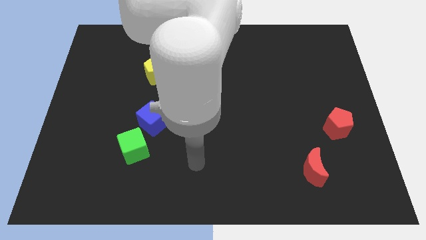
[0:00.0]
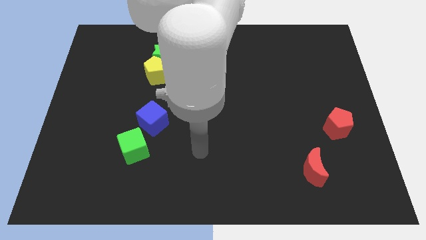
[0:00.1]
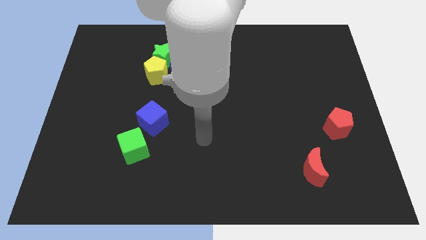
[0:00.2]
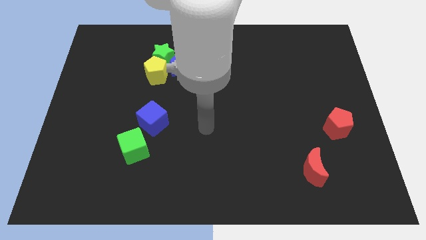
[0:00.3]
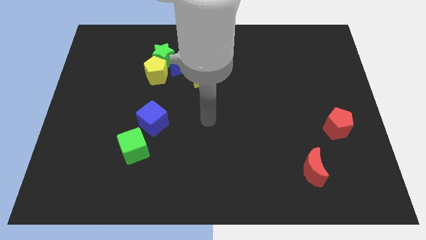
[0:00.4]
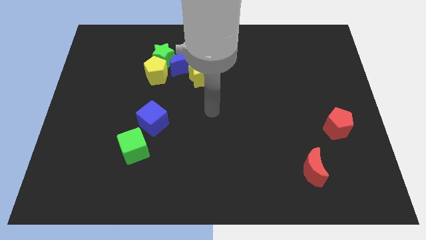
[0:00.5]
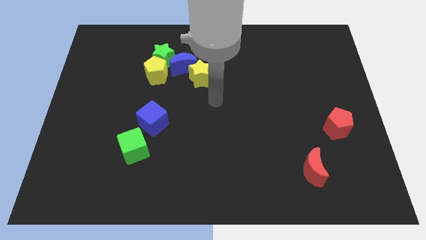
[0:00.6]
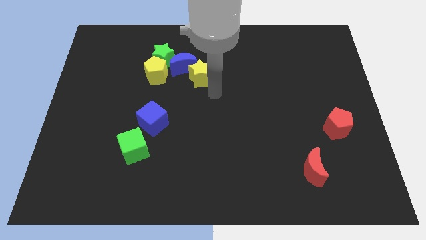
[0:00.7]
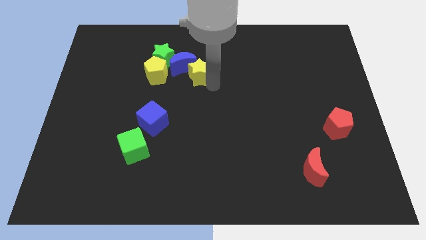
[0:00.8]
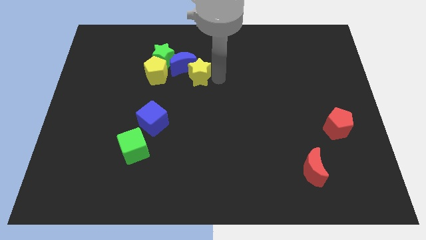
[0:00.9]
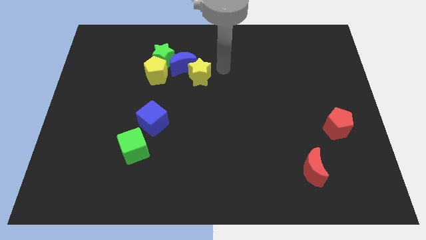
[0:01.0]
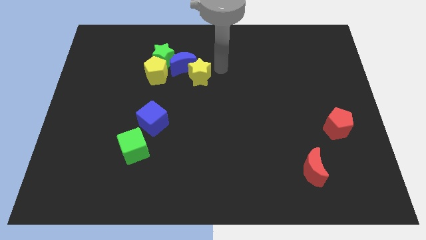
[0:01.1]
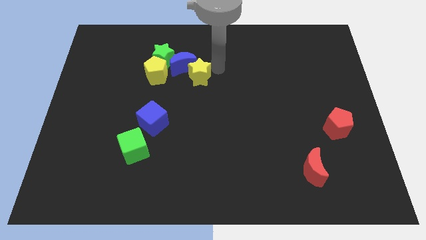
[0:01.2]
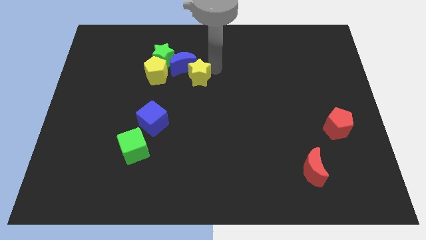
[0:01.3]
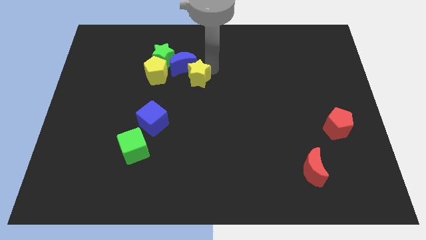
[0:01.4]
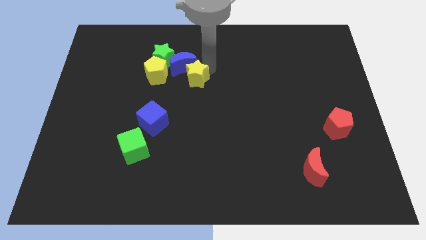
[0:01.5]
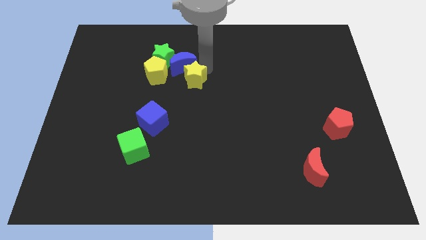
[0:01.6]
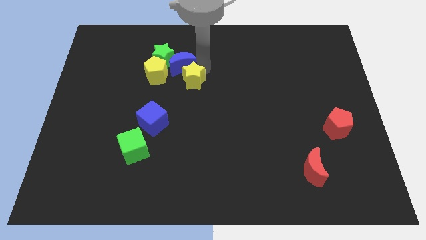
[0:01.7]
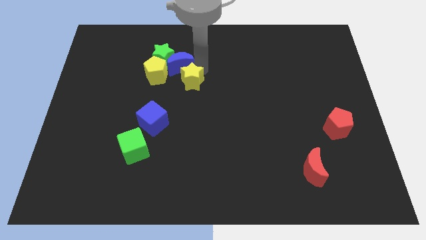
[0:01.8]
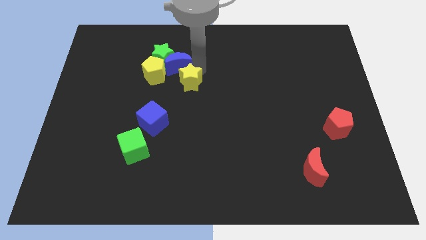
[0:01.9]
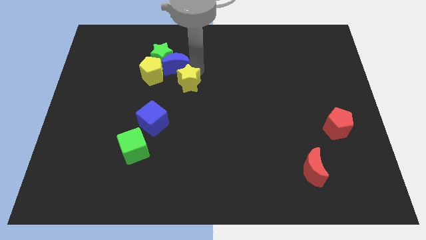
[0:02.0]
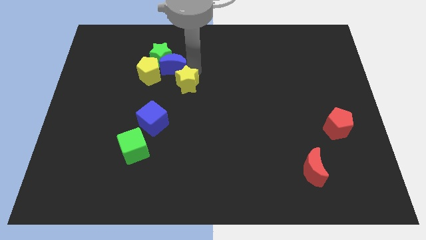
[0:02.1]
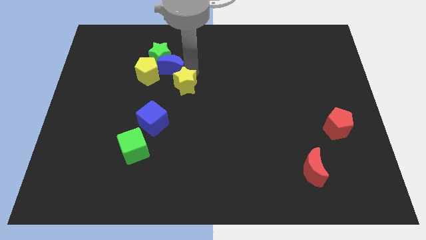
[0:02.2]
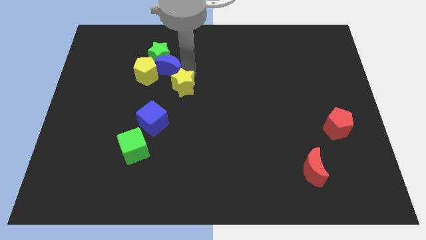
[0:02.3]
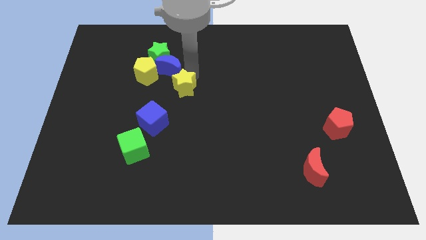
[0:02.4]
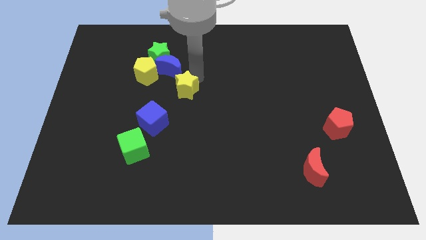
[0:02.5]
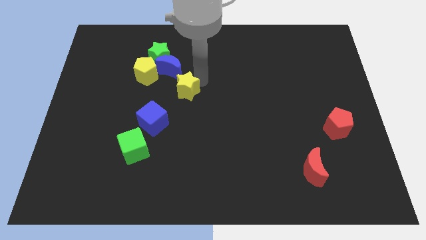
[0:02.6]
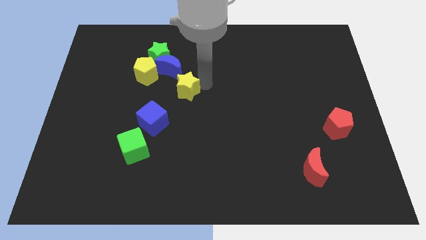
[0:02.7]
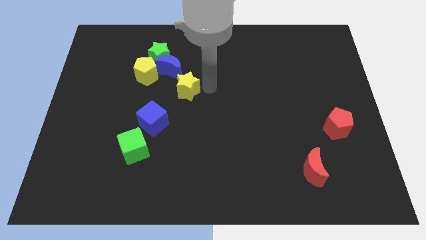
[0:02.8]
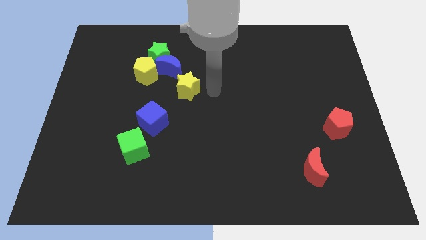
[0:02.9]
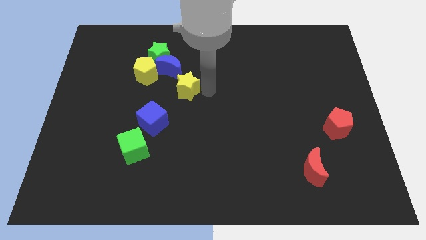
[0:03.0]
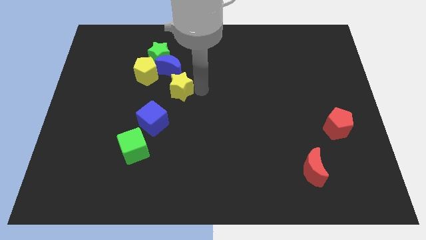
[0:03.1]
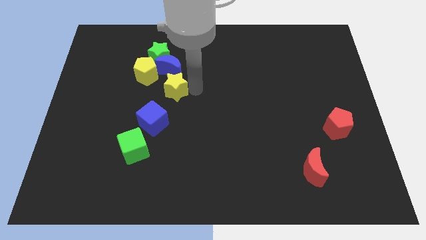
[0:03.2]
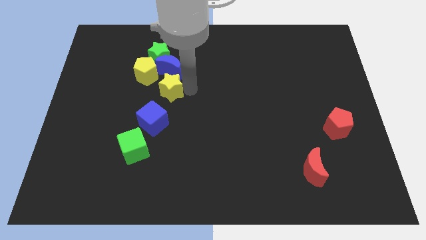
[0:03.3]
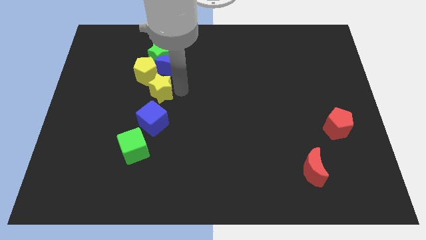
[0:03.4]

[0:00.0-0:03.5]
push the yellow star a little left

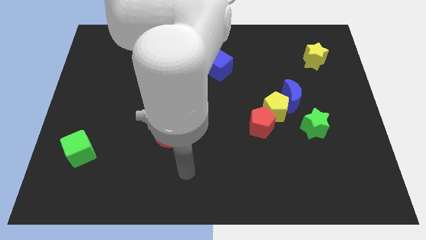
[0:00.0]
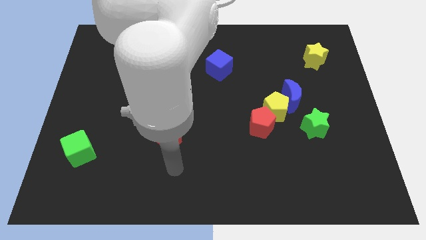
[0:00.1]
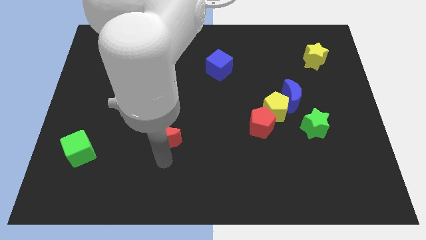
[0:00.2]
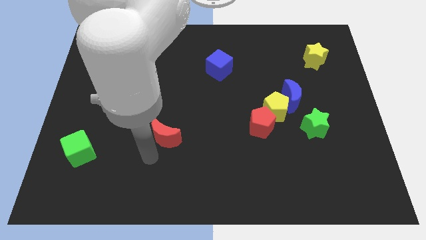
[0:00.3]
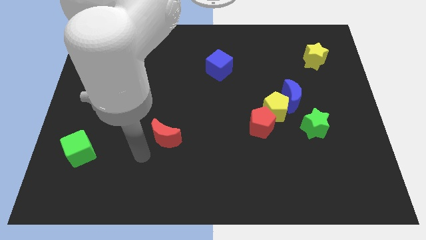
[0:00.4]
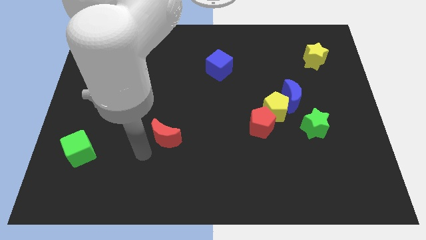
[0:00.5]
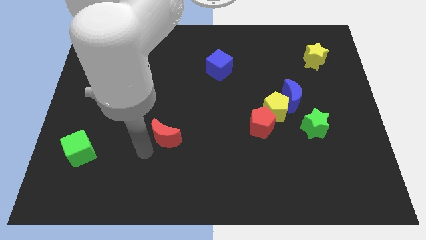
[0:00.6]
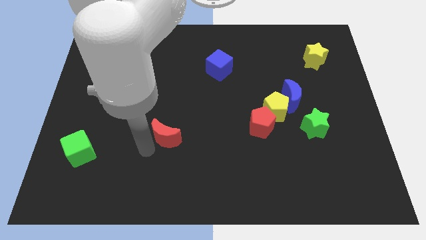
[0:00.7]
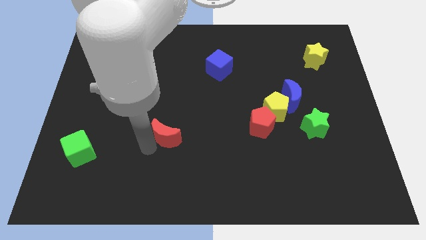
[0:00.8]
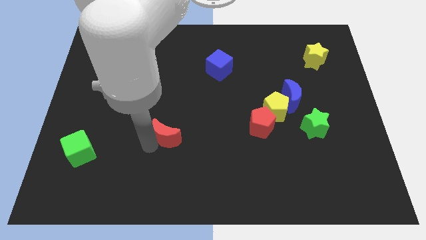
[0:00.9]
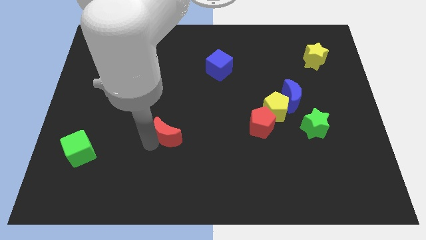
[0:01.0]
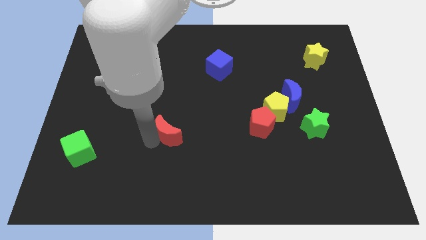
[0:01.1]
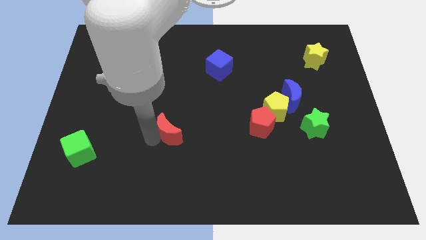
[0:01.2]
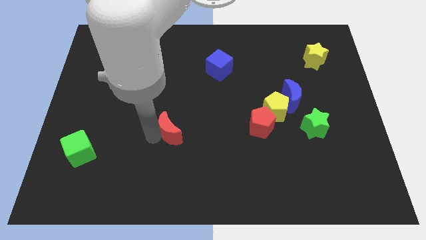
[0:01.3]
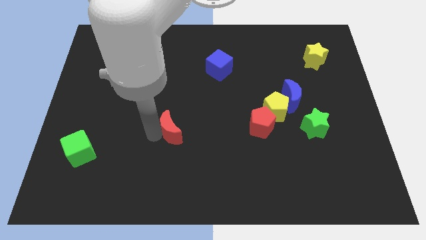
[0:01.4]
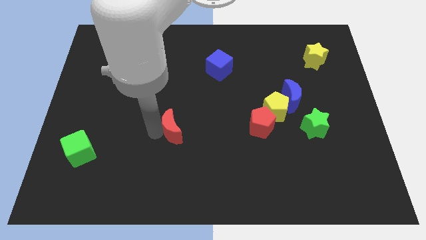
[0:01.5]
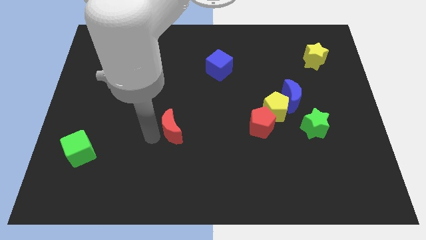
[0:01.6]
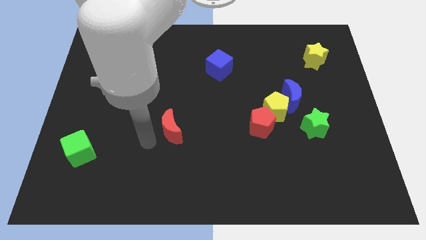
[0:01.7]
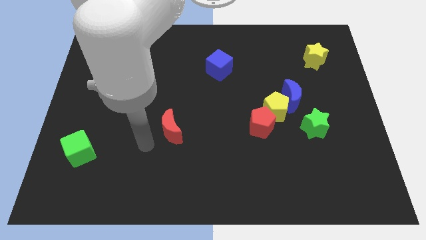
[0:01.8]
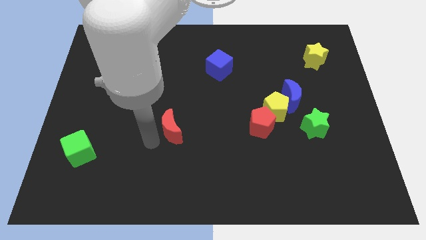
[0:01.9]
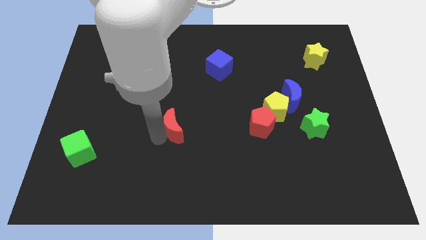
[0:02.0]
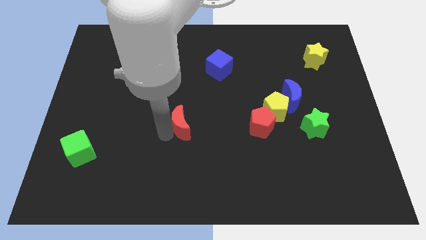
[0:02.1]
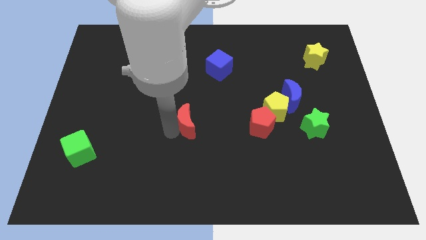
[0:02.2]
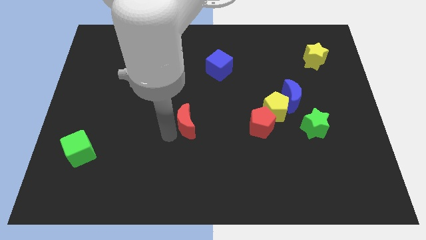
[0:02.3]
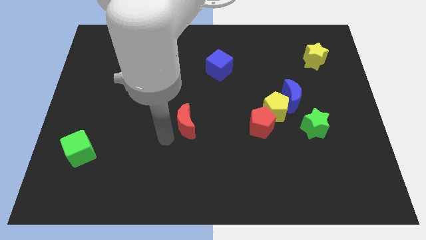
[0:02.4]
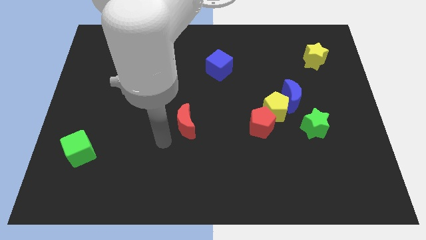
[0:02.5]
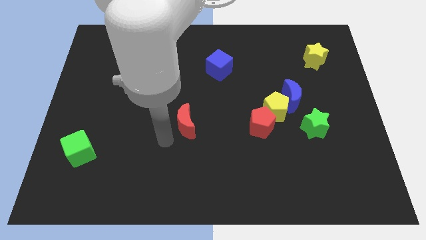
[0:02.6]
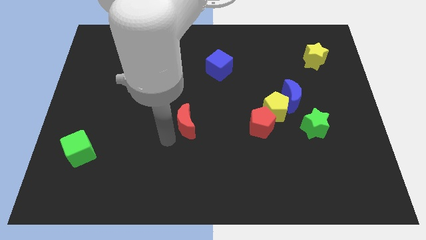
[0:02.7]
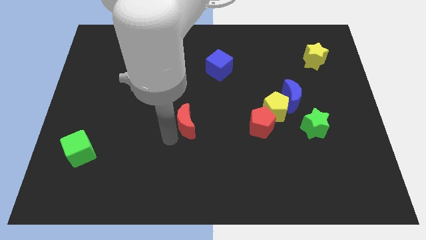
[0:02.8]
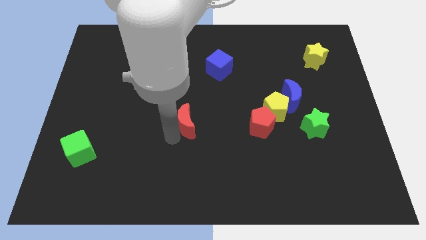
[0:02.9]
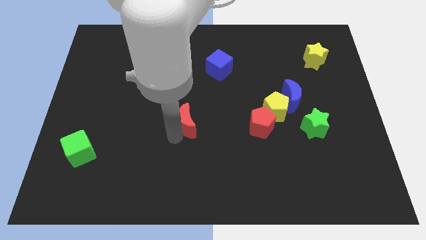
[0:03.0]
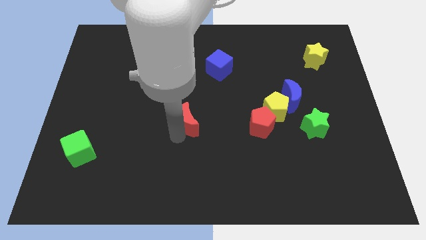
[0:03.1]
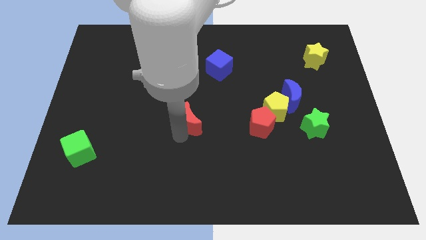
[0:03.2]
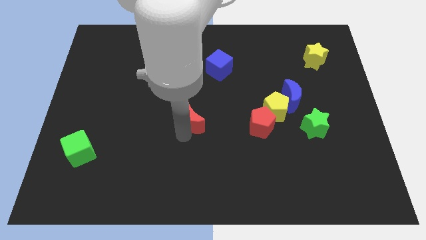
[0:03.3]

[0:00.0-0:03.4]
slide the red moon up and to the right a bit

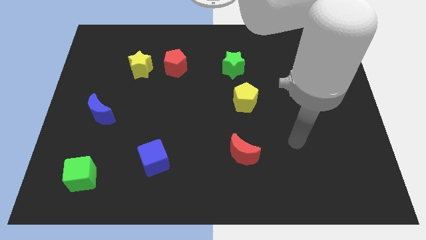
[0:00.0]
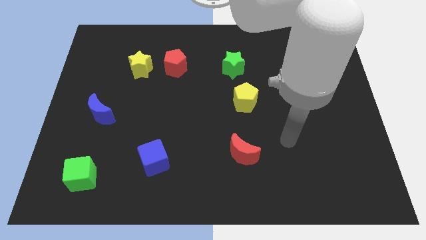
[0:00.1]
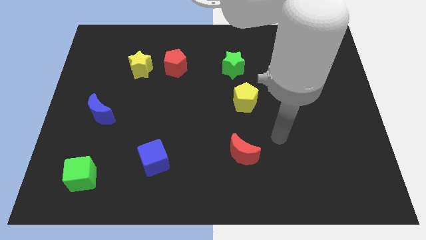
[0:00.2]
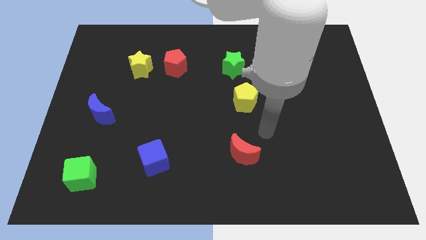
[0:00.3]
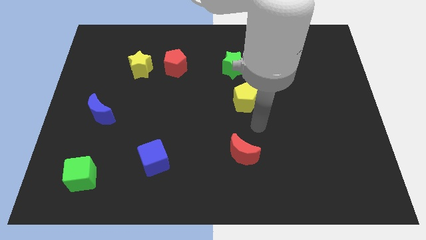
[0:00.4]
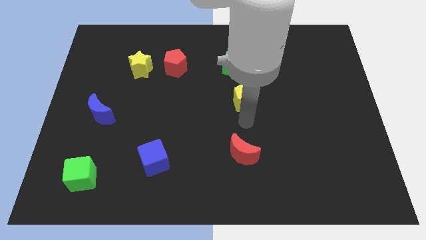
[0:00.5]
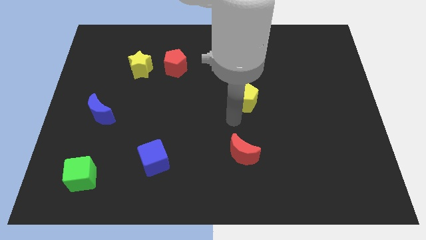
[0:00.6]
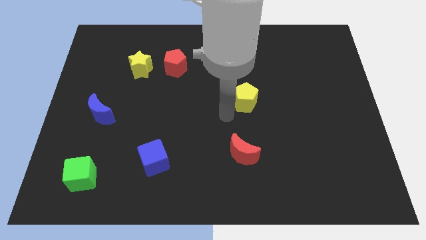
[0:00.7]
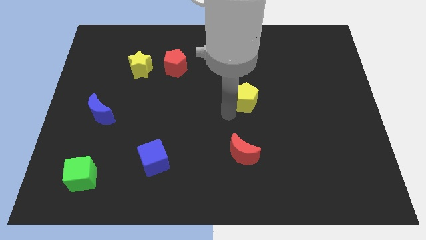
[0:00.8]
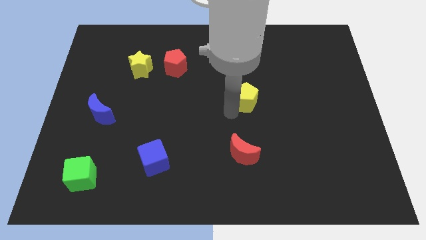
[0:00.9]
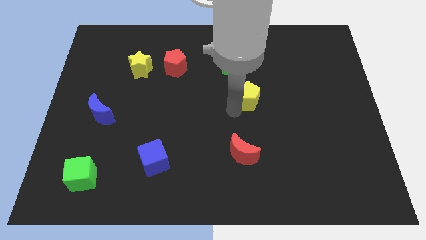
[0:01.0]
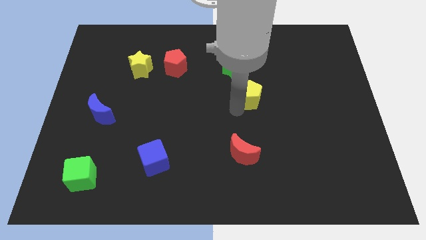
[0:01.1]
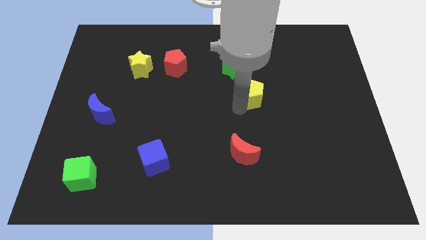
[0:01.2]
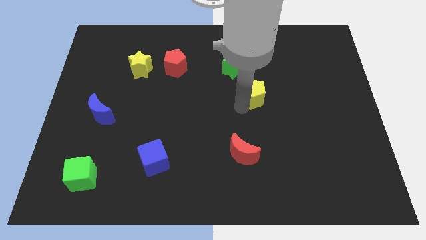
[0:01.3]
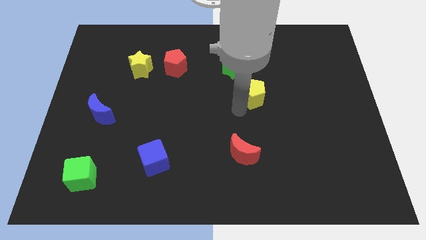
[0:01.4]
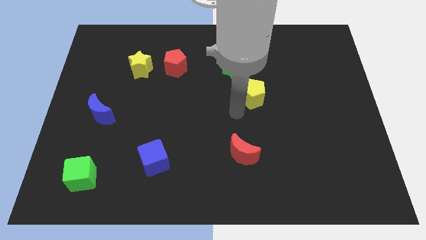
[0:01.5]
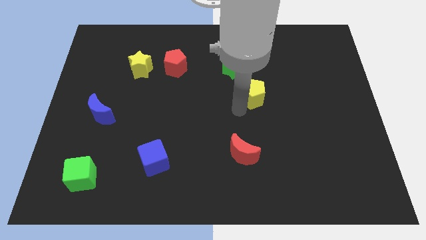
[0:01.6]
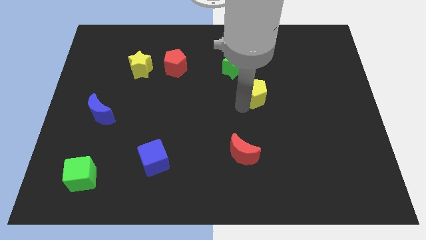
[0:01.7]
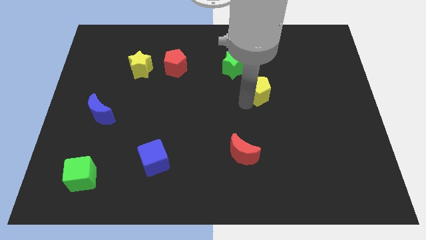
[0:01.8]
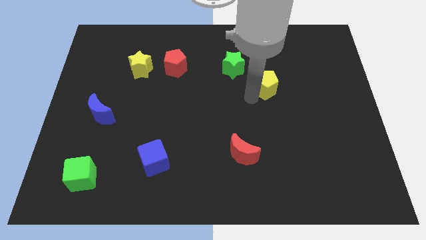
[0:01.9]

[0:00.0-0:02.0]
slightly move the yellow pentagon up and to the right
